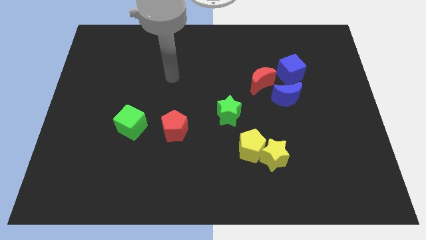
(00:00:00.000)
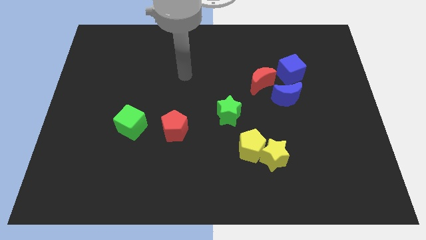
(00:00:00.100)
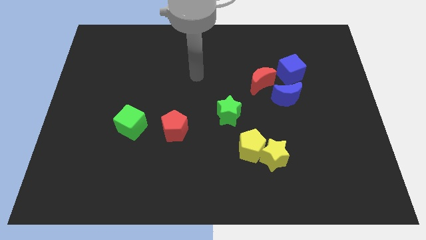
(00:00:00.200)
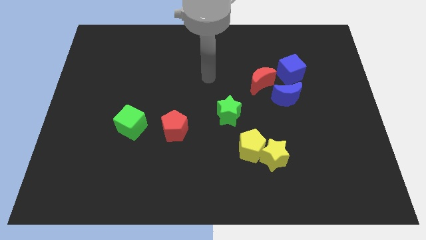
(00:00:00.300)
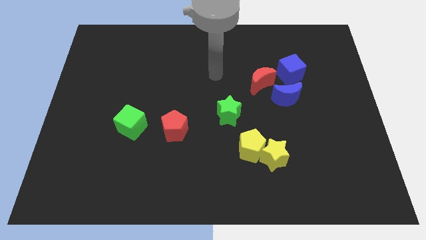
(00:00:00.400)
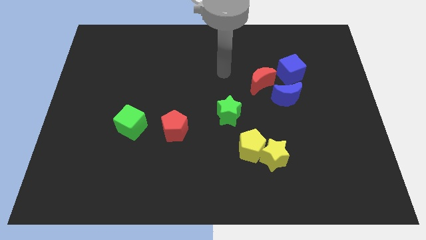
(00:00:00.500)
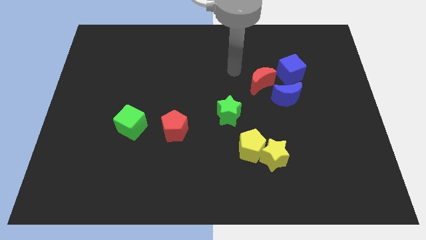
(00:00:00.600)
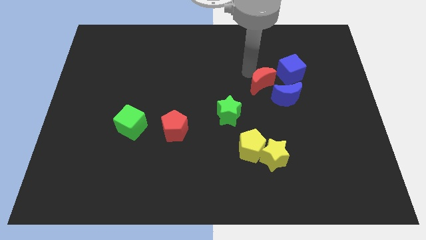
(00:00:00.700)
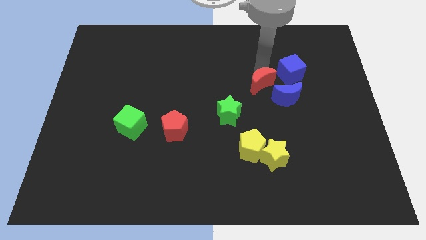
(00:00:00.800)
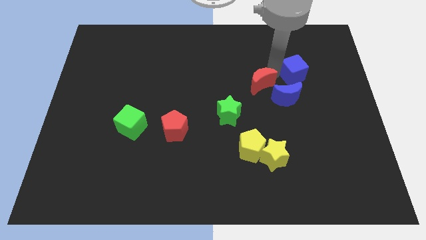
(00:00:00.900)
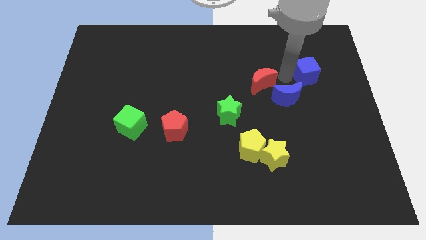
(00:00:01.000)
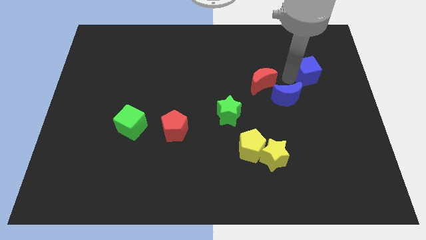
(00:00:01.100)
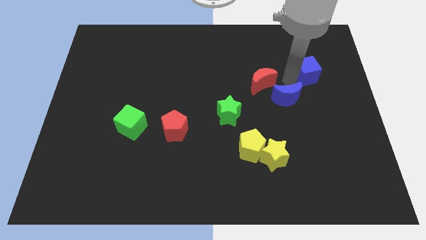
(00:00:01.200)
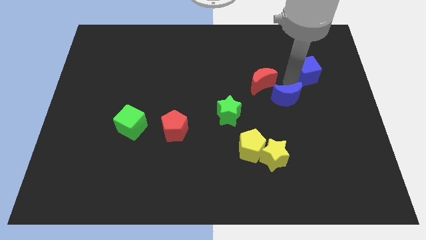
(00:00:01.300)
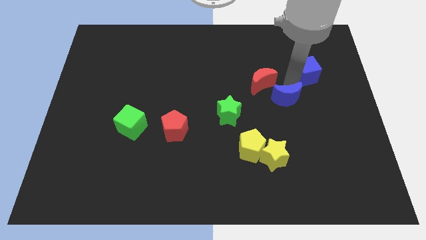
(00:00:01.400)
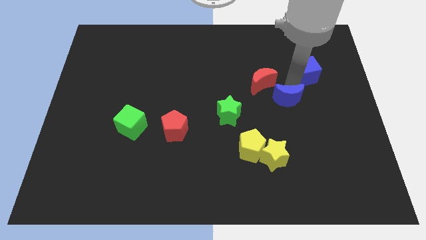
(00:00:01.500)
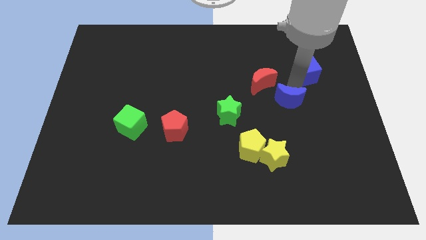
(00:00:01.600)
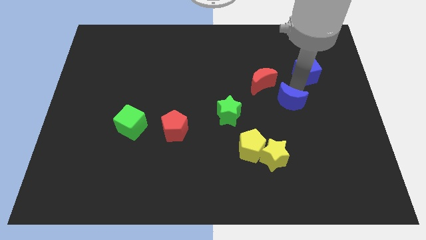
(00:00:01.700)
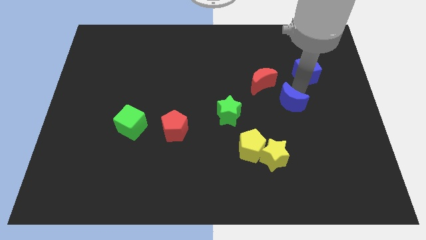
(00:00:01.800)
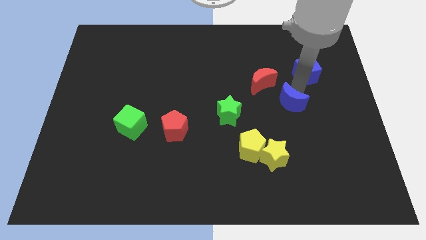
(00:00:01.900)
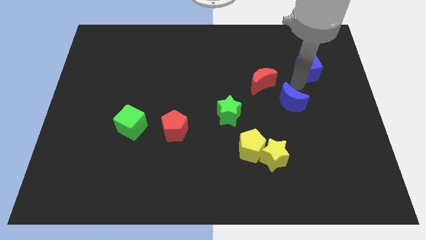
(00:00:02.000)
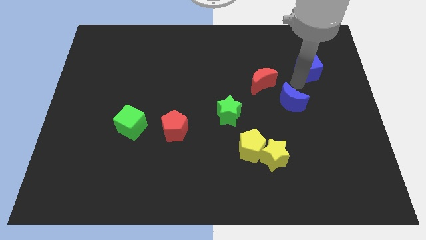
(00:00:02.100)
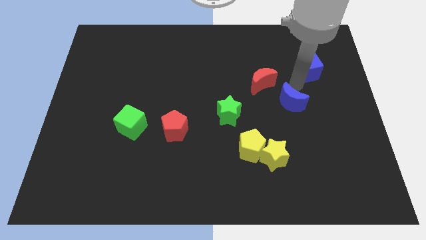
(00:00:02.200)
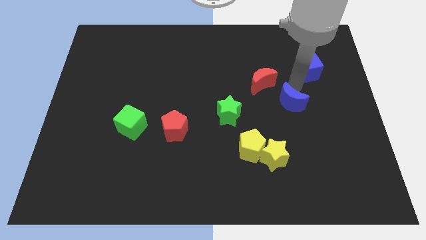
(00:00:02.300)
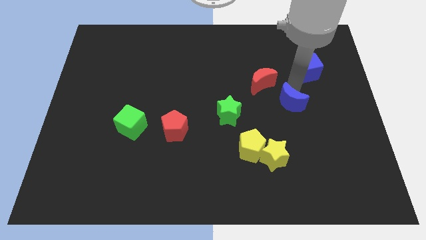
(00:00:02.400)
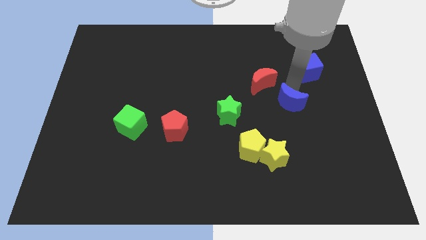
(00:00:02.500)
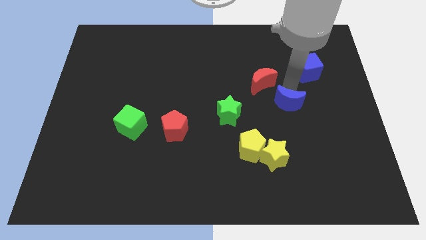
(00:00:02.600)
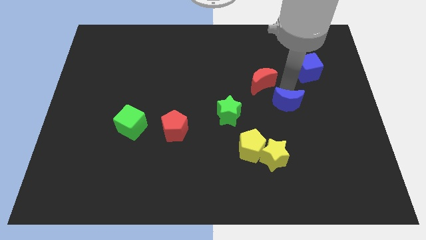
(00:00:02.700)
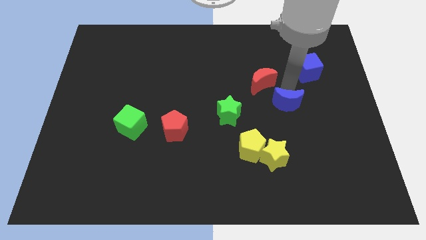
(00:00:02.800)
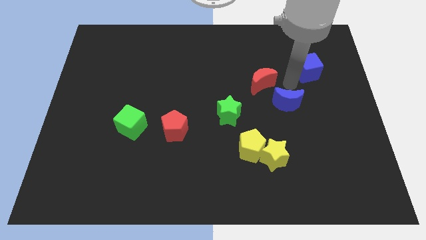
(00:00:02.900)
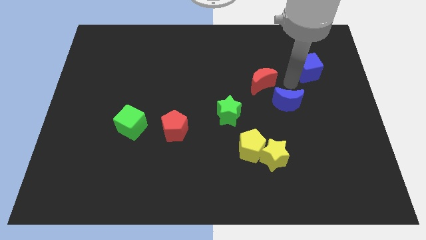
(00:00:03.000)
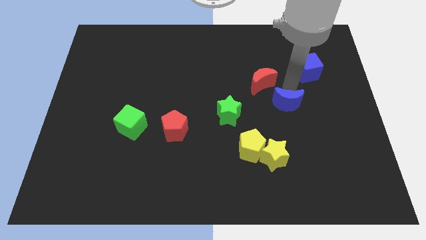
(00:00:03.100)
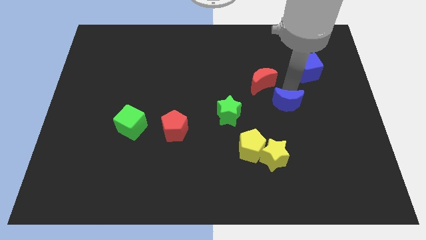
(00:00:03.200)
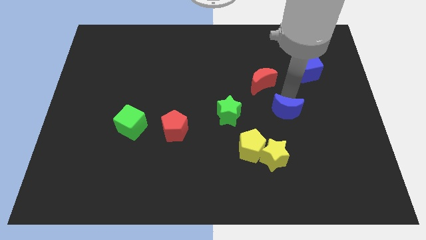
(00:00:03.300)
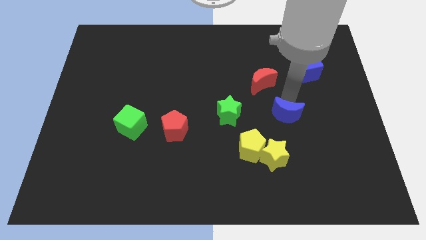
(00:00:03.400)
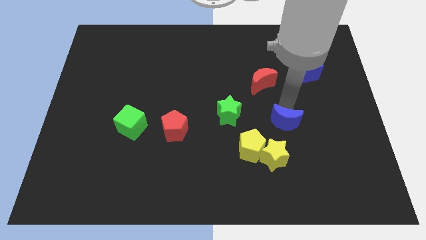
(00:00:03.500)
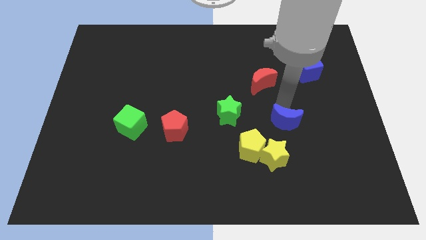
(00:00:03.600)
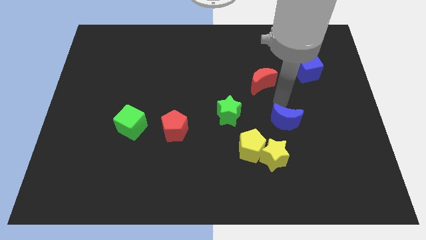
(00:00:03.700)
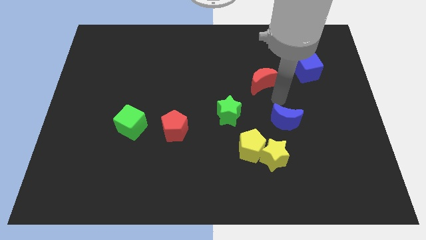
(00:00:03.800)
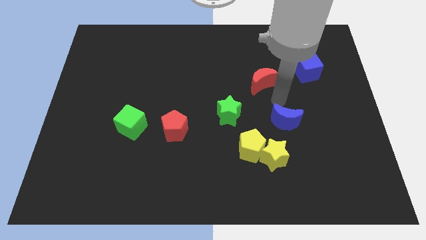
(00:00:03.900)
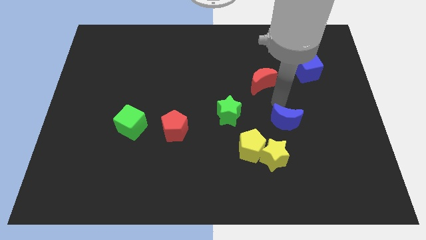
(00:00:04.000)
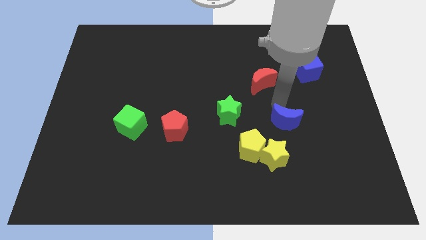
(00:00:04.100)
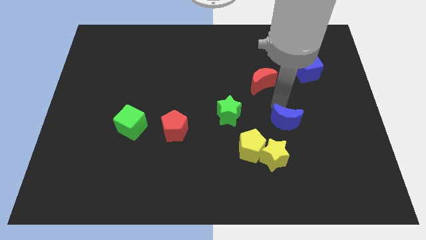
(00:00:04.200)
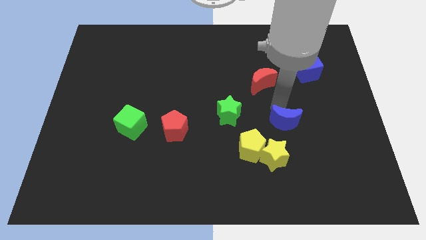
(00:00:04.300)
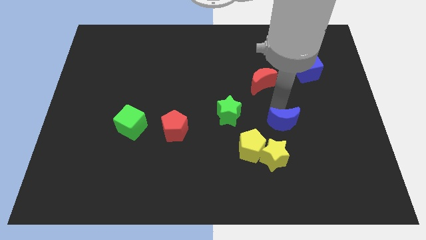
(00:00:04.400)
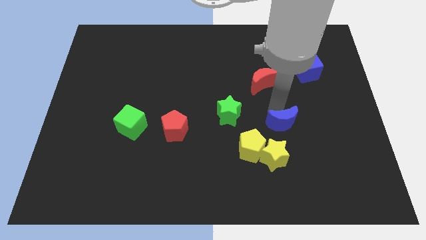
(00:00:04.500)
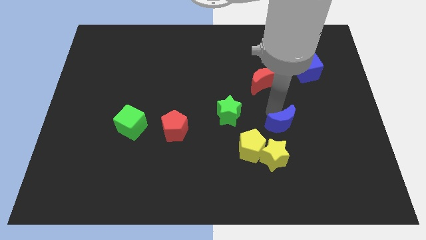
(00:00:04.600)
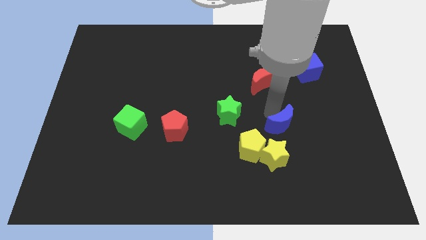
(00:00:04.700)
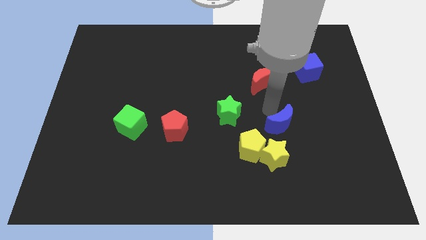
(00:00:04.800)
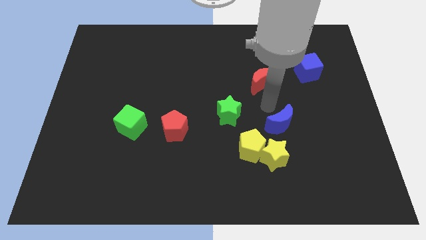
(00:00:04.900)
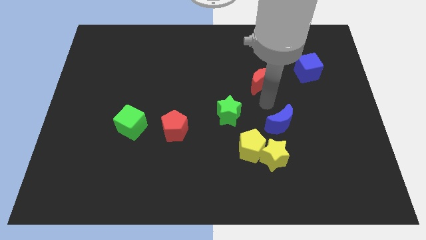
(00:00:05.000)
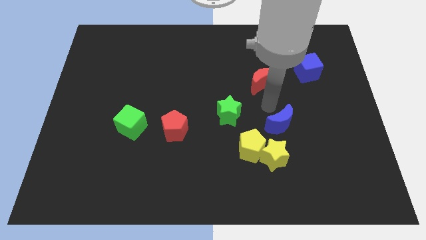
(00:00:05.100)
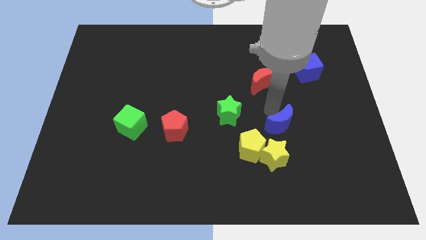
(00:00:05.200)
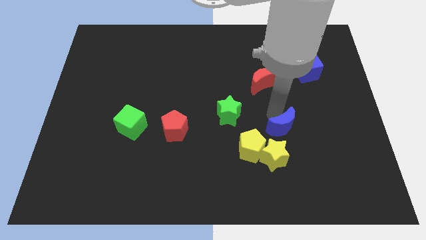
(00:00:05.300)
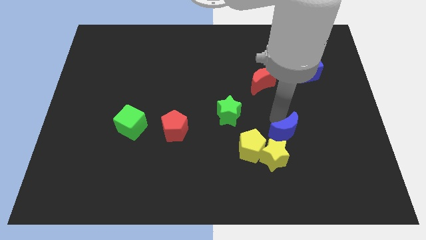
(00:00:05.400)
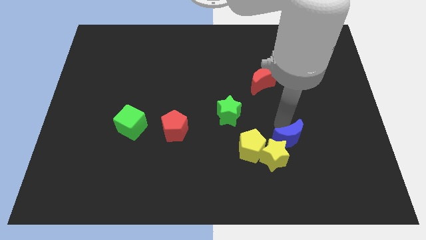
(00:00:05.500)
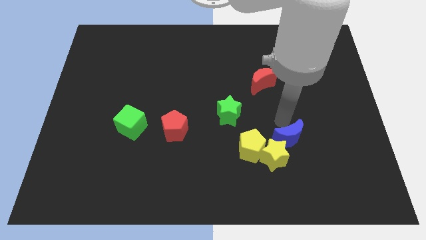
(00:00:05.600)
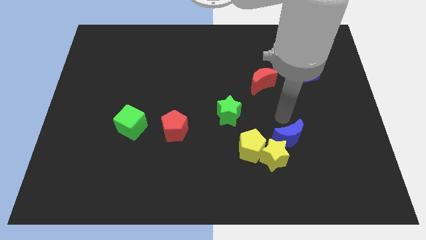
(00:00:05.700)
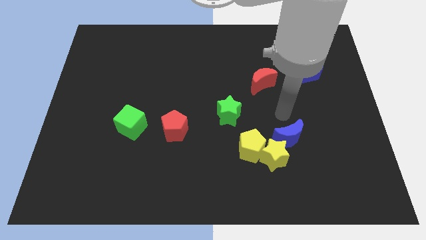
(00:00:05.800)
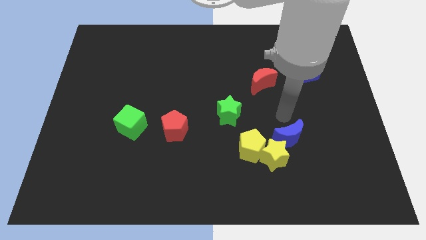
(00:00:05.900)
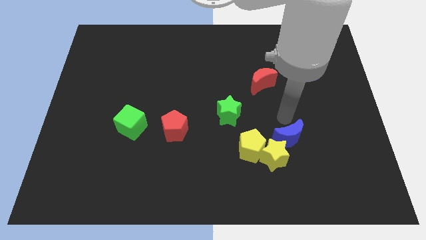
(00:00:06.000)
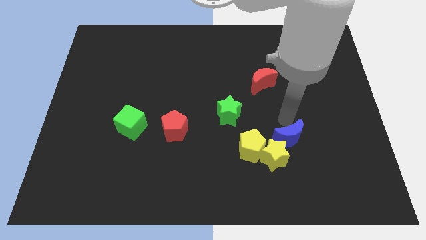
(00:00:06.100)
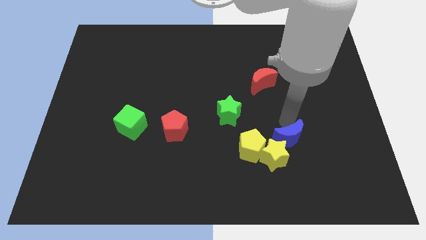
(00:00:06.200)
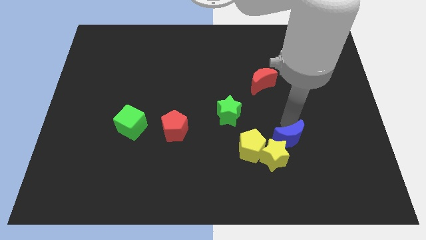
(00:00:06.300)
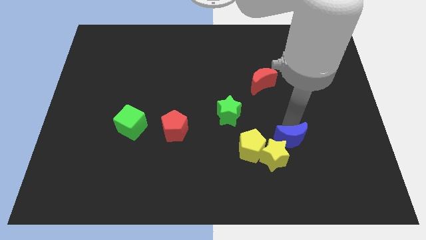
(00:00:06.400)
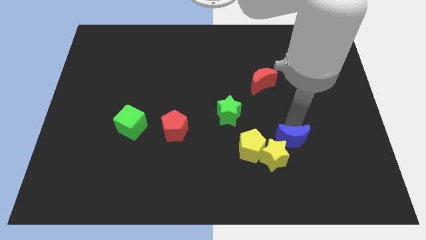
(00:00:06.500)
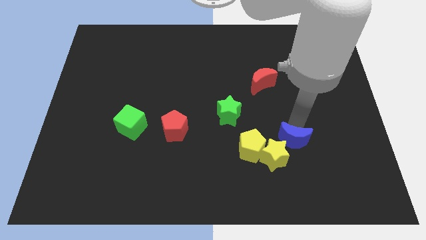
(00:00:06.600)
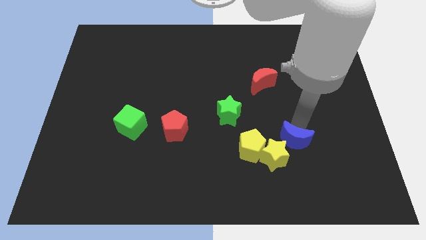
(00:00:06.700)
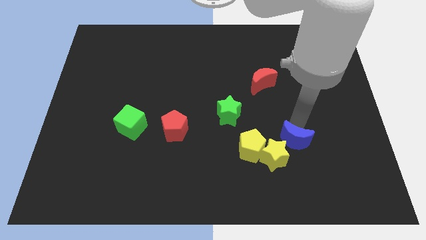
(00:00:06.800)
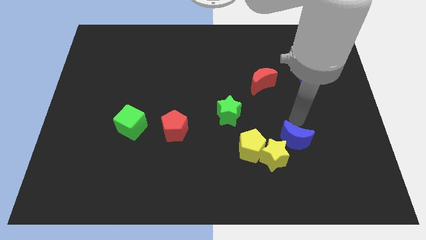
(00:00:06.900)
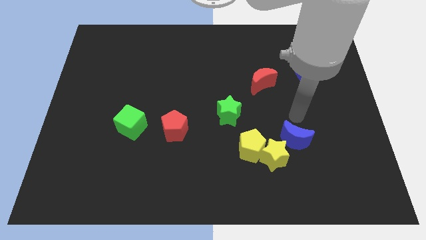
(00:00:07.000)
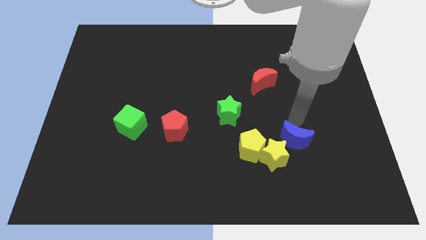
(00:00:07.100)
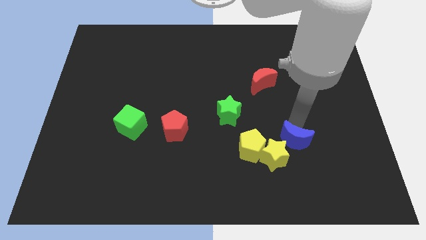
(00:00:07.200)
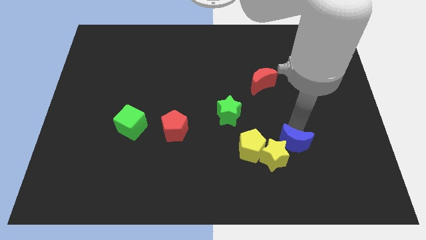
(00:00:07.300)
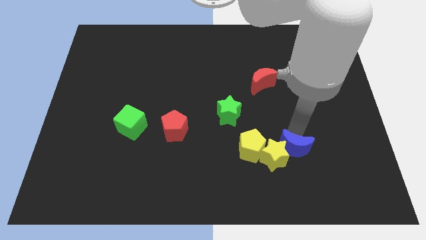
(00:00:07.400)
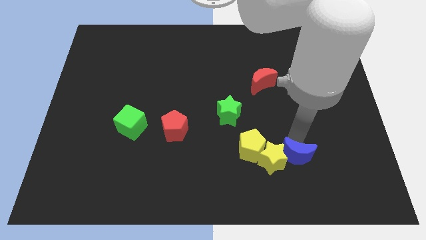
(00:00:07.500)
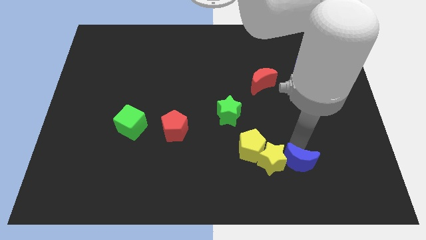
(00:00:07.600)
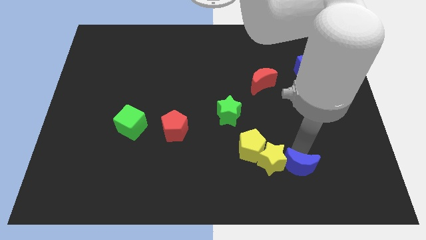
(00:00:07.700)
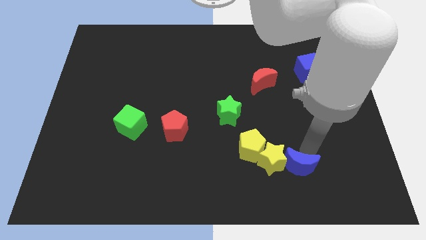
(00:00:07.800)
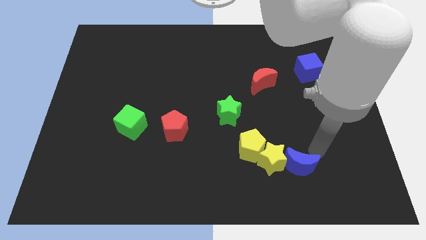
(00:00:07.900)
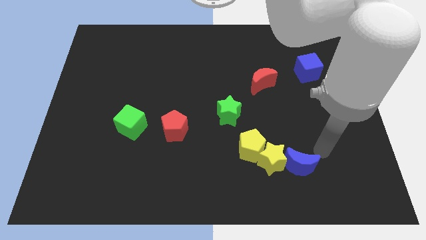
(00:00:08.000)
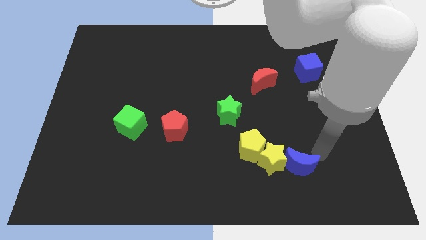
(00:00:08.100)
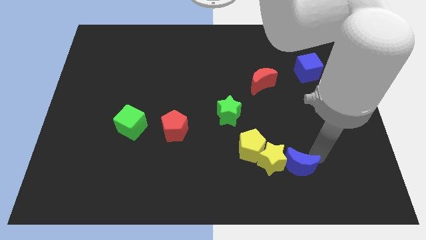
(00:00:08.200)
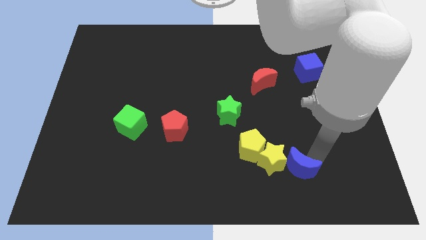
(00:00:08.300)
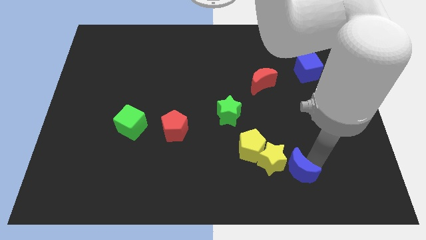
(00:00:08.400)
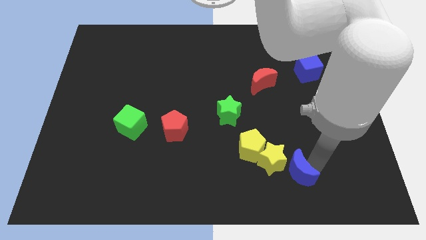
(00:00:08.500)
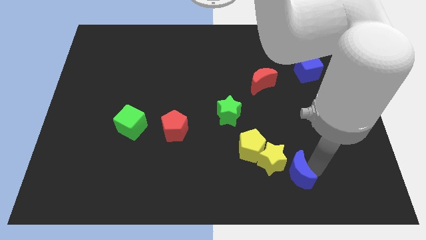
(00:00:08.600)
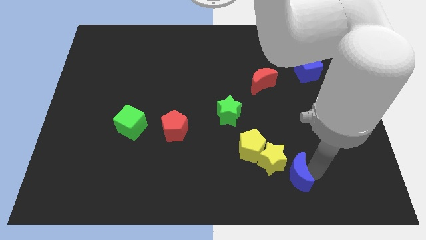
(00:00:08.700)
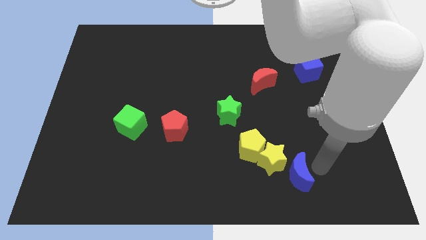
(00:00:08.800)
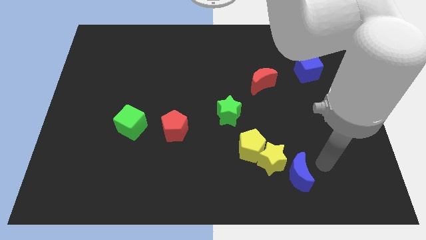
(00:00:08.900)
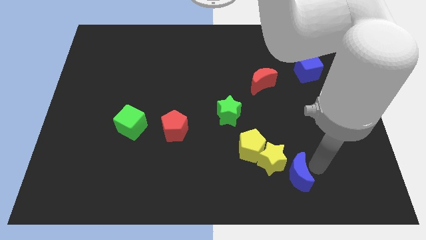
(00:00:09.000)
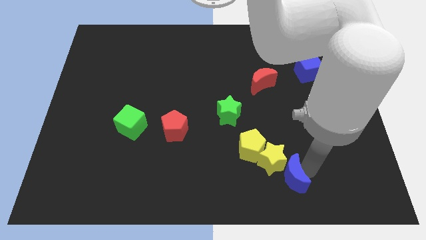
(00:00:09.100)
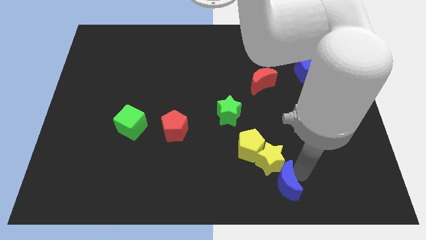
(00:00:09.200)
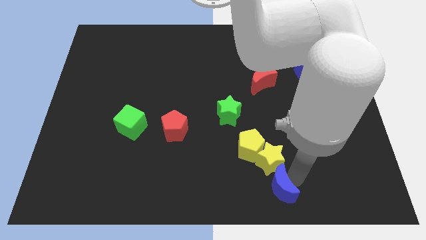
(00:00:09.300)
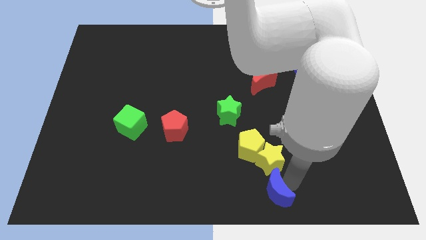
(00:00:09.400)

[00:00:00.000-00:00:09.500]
put the blue moon to the bottom
